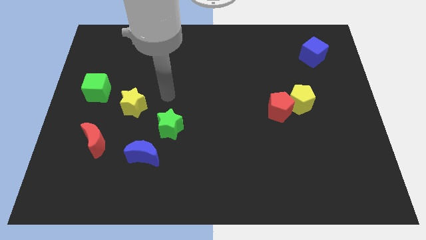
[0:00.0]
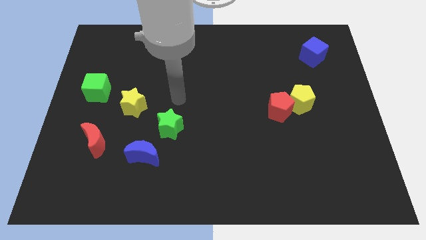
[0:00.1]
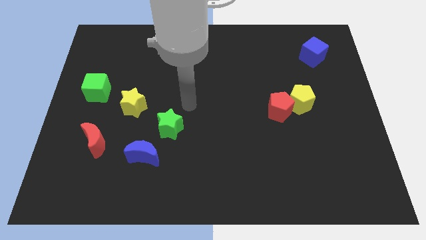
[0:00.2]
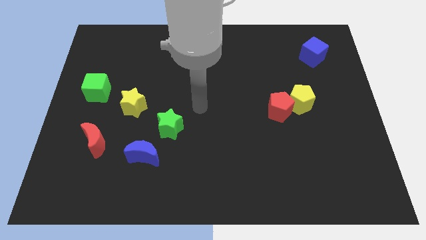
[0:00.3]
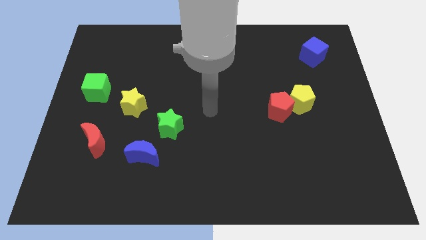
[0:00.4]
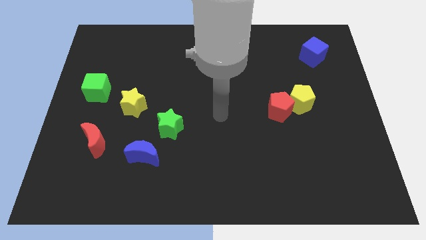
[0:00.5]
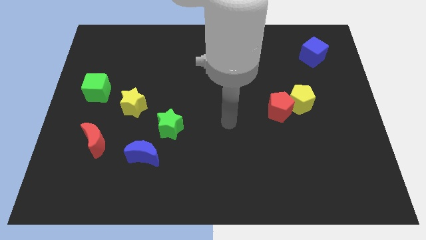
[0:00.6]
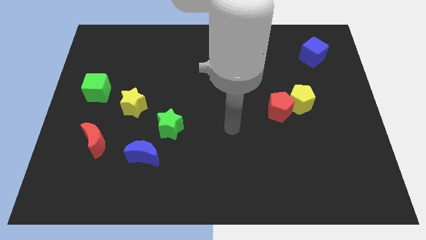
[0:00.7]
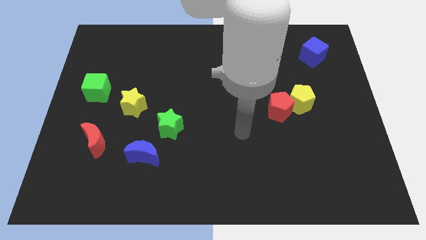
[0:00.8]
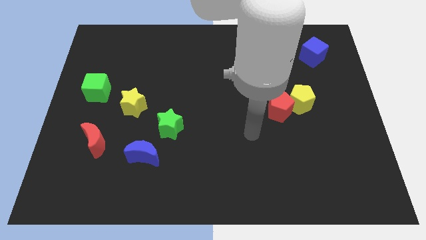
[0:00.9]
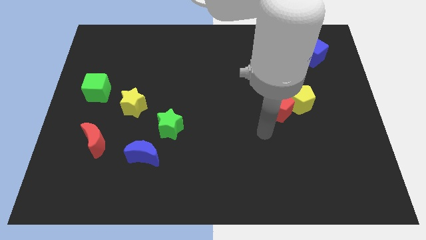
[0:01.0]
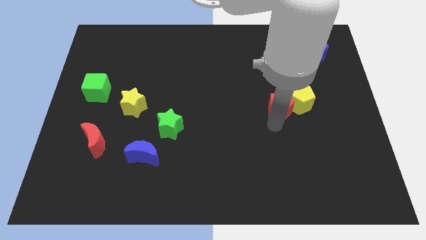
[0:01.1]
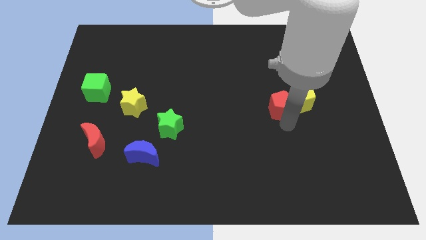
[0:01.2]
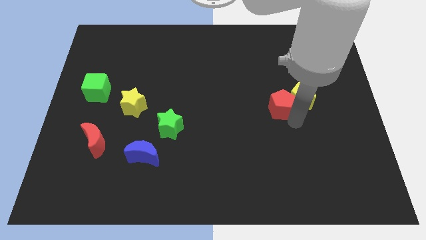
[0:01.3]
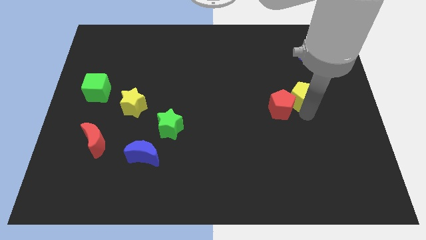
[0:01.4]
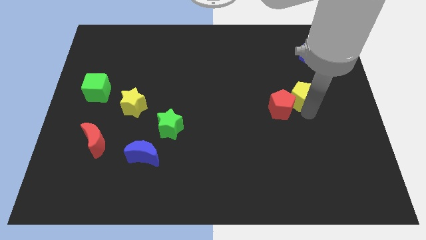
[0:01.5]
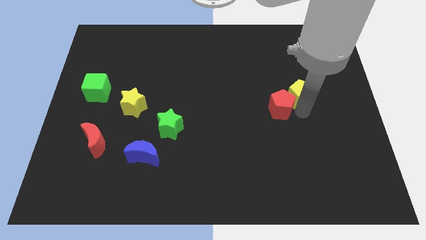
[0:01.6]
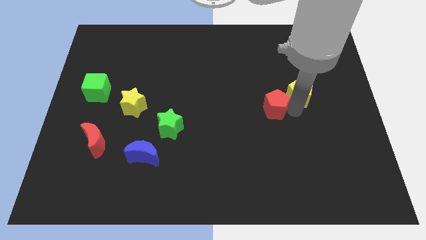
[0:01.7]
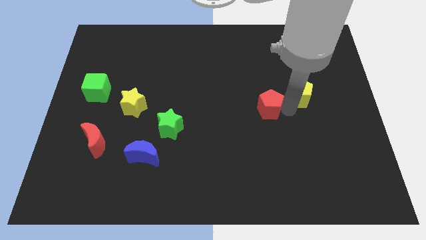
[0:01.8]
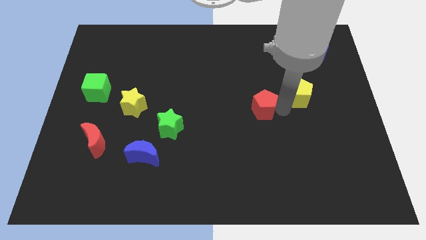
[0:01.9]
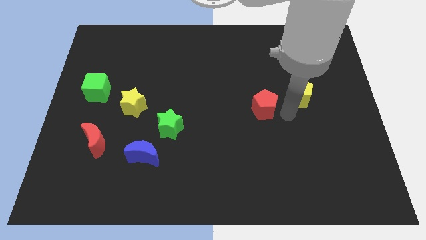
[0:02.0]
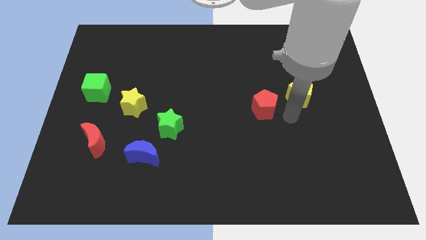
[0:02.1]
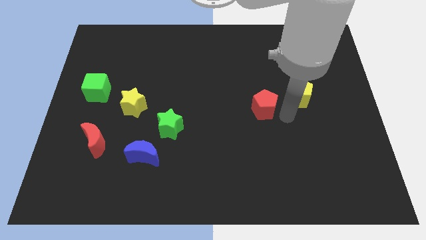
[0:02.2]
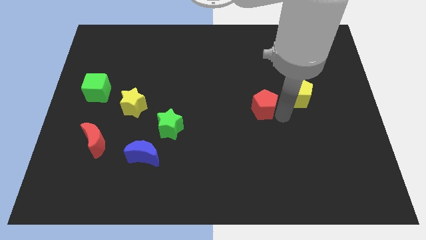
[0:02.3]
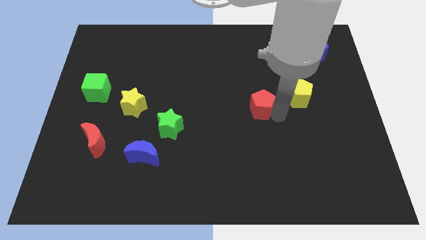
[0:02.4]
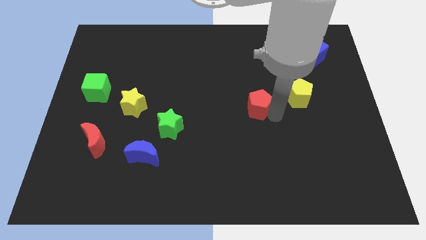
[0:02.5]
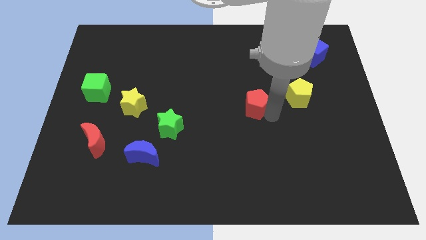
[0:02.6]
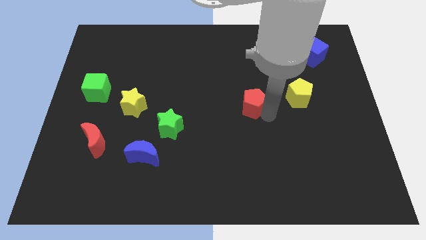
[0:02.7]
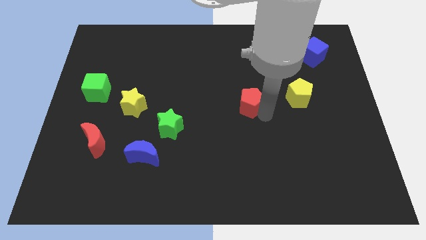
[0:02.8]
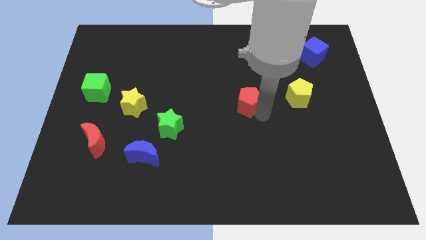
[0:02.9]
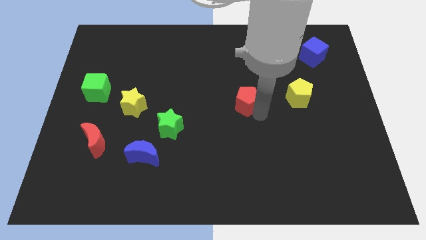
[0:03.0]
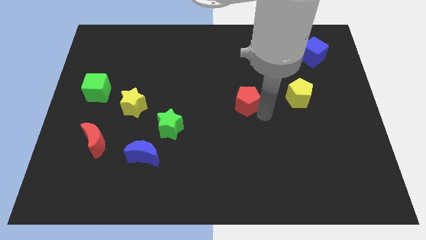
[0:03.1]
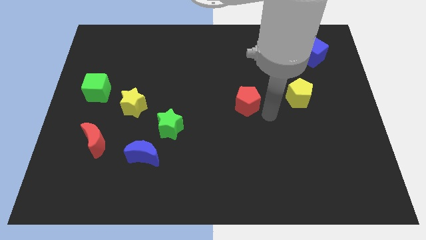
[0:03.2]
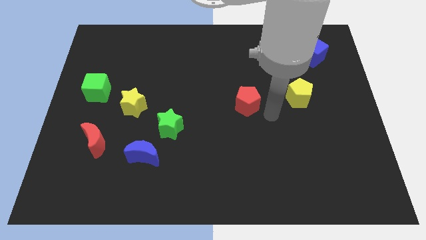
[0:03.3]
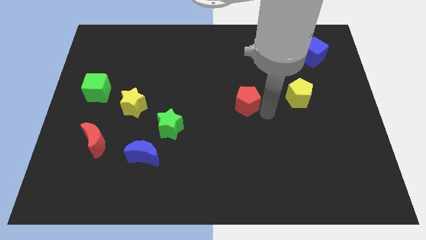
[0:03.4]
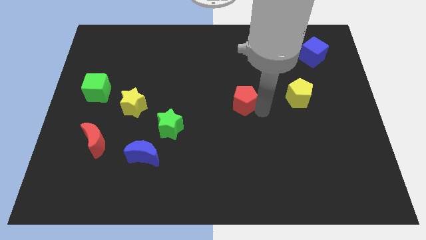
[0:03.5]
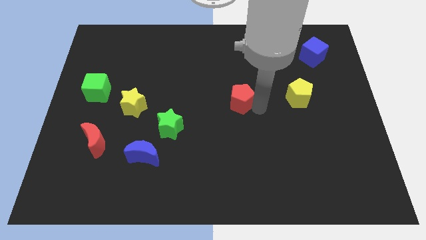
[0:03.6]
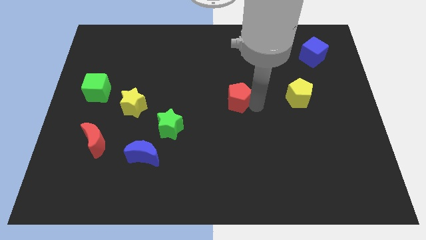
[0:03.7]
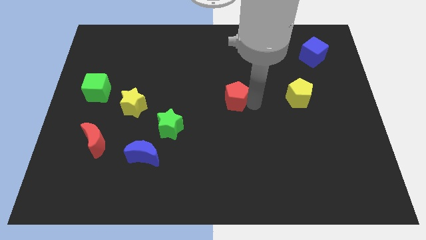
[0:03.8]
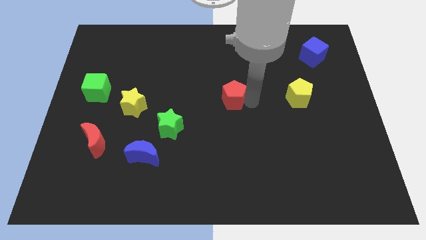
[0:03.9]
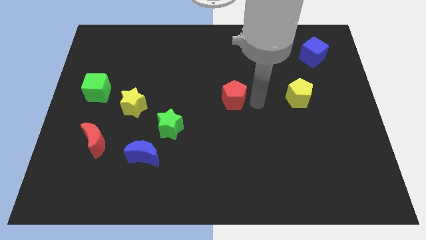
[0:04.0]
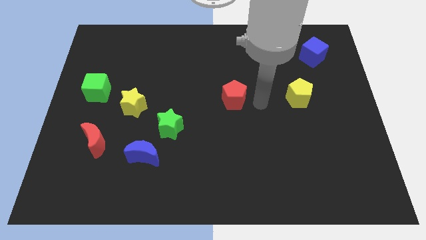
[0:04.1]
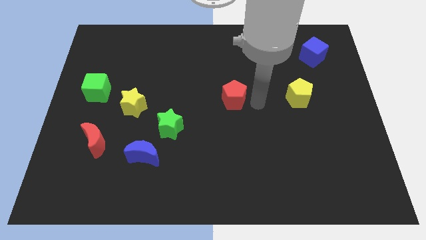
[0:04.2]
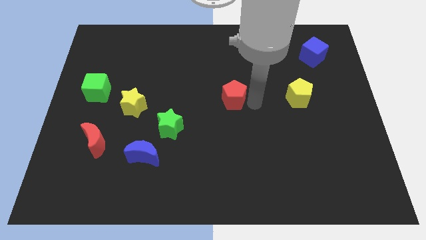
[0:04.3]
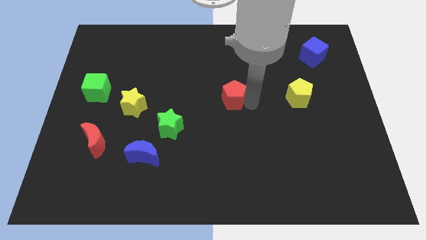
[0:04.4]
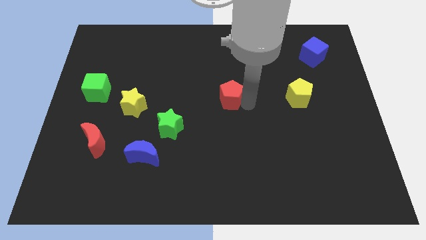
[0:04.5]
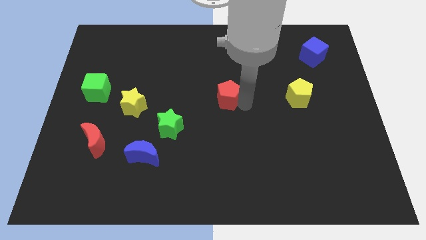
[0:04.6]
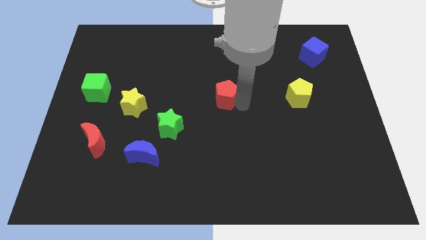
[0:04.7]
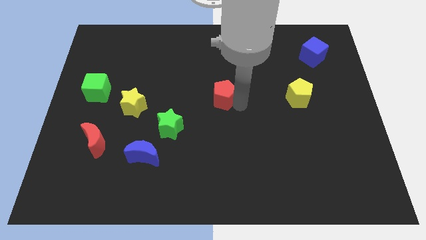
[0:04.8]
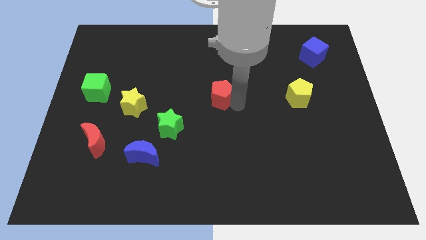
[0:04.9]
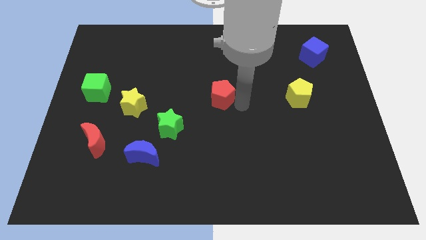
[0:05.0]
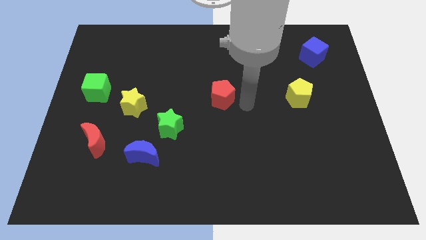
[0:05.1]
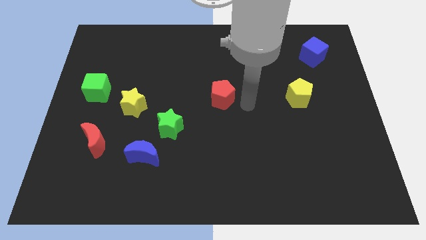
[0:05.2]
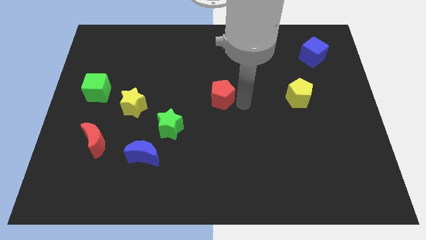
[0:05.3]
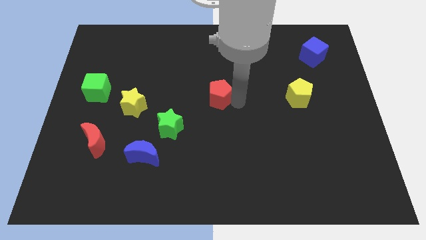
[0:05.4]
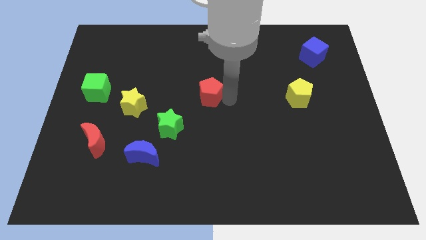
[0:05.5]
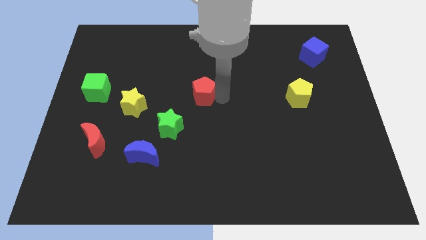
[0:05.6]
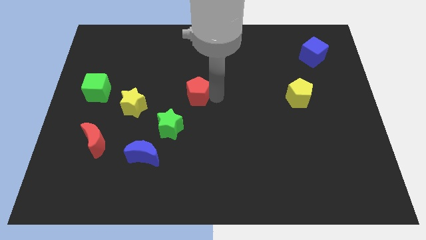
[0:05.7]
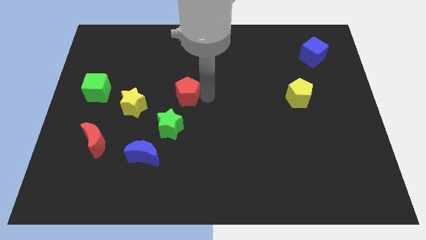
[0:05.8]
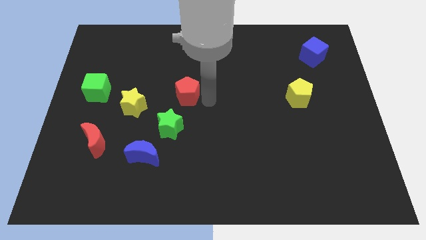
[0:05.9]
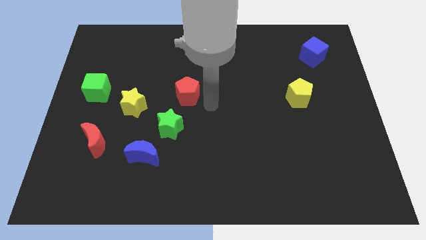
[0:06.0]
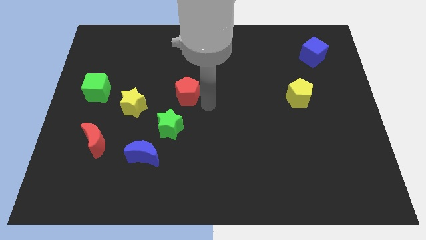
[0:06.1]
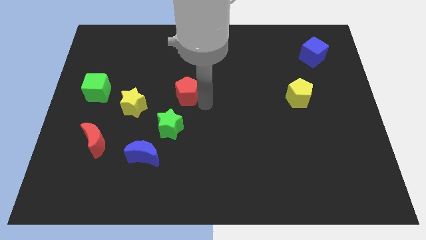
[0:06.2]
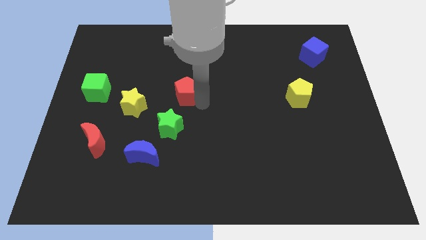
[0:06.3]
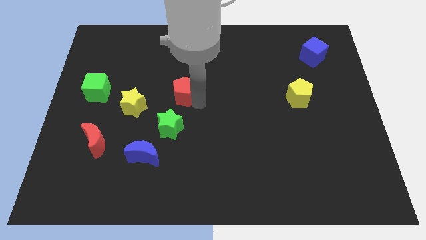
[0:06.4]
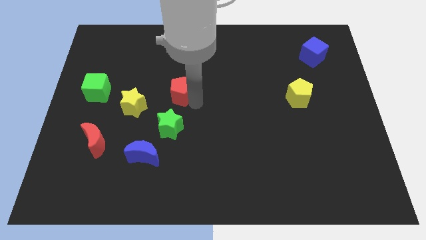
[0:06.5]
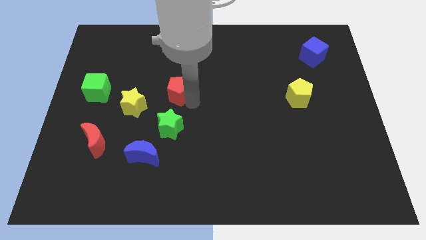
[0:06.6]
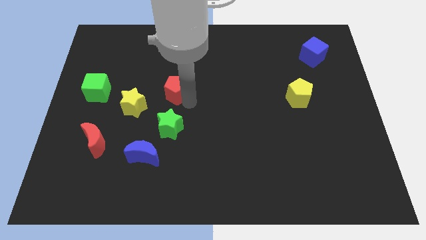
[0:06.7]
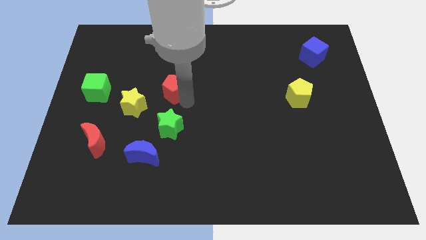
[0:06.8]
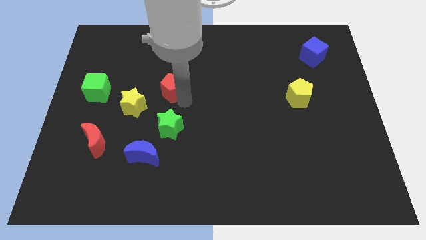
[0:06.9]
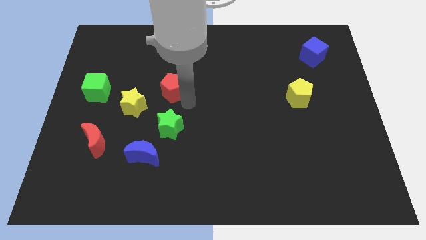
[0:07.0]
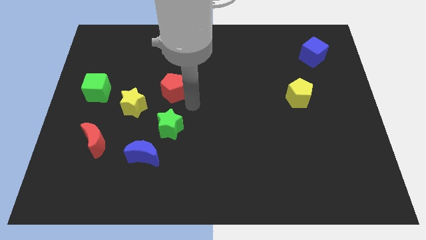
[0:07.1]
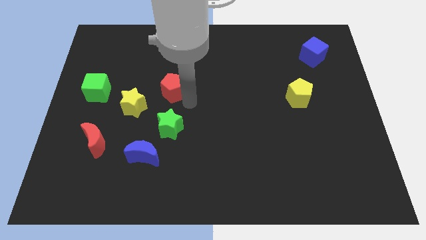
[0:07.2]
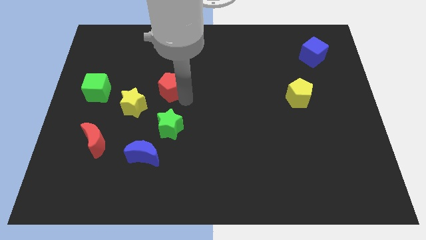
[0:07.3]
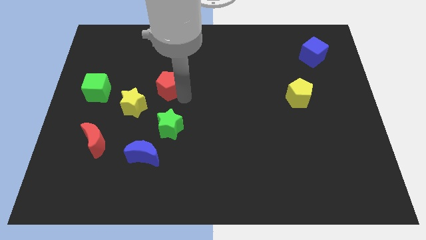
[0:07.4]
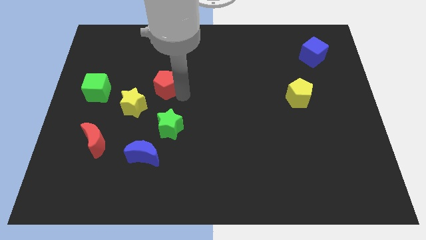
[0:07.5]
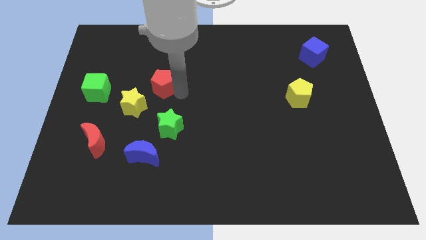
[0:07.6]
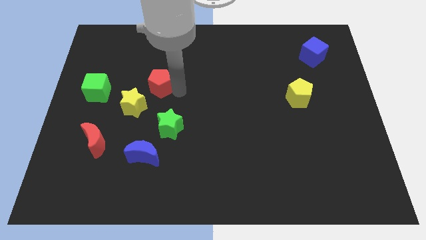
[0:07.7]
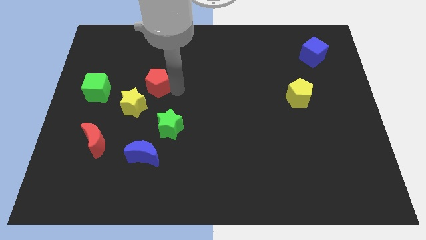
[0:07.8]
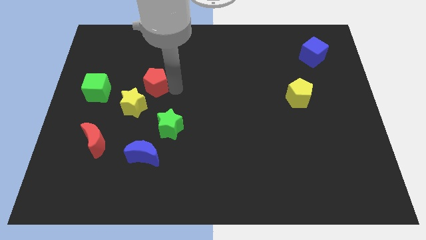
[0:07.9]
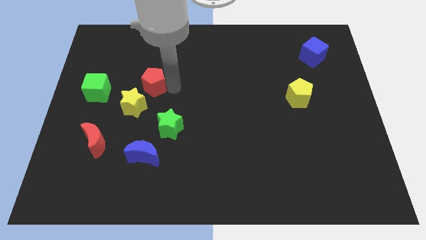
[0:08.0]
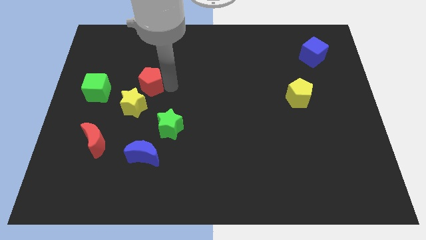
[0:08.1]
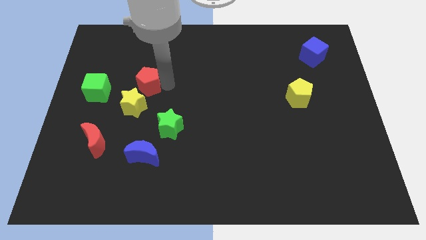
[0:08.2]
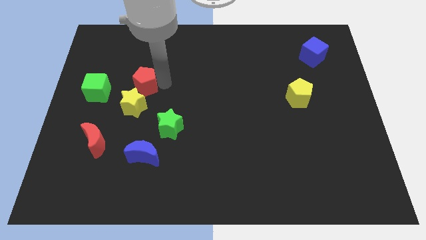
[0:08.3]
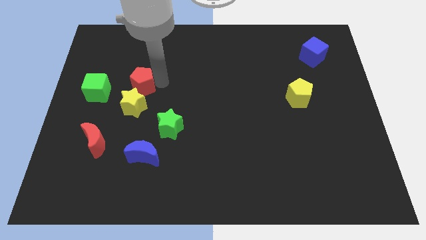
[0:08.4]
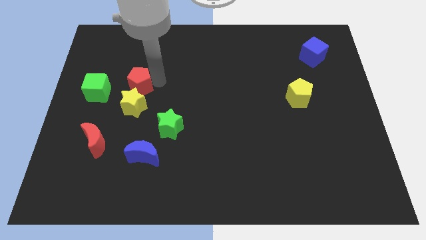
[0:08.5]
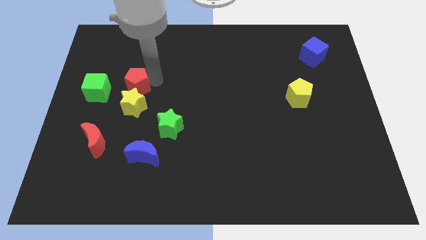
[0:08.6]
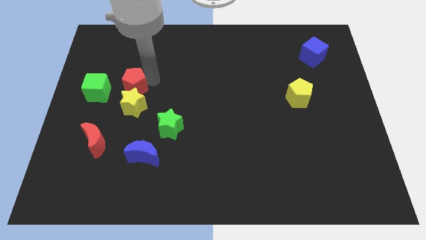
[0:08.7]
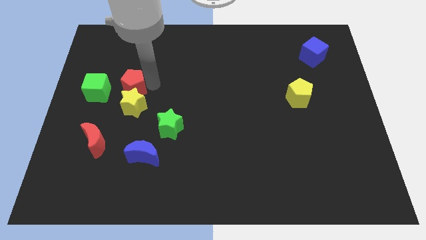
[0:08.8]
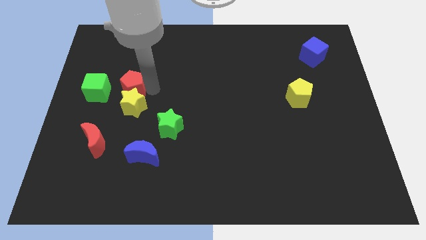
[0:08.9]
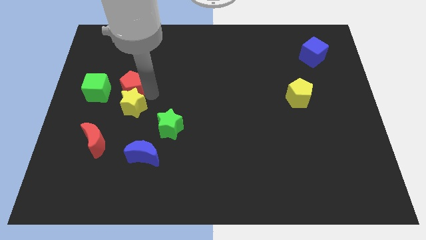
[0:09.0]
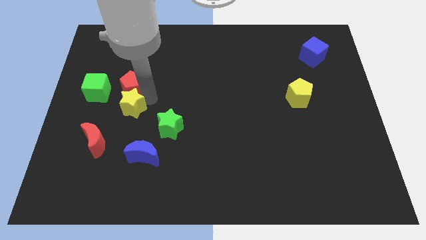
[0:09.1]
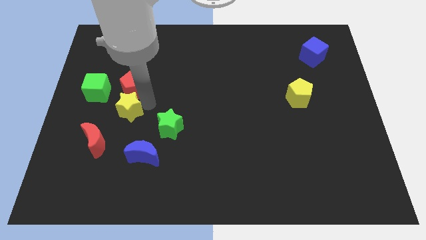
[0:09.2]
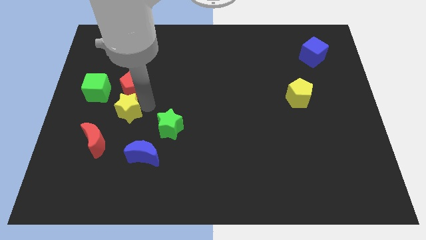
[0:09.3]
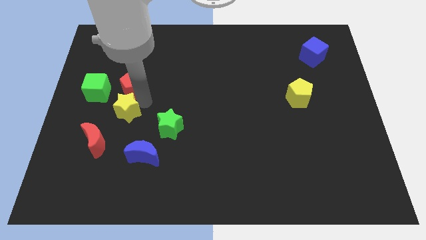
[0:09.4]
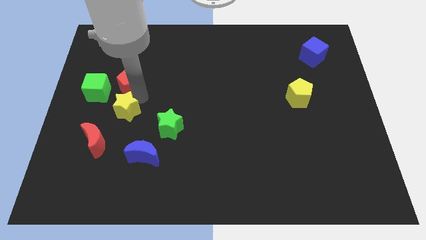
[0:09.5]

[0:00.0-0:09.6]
push the red pentagon to the top right side of the green cube
